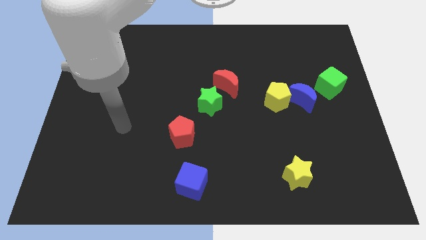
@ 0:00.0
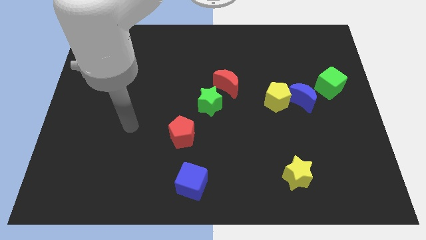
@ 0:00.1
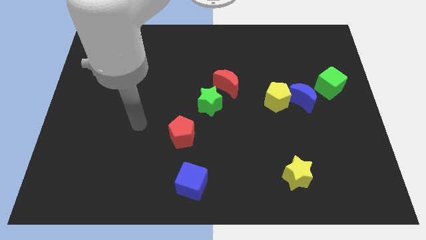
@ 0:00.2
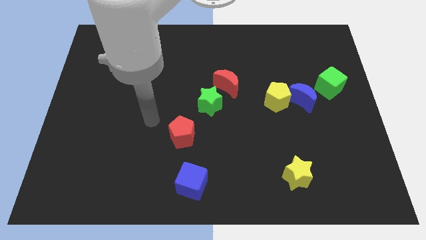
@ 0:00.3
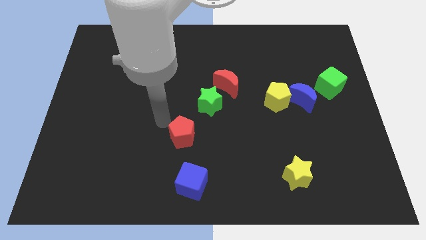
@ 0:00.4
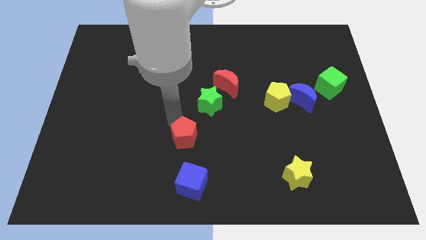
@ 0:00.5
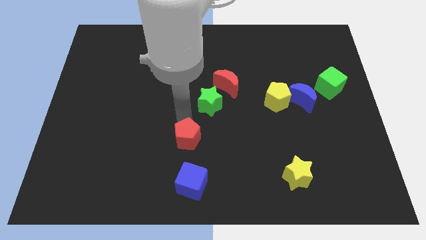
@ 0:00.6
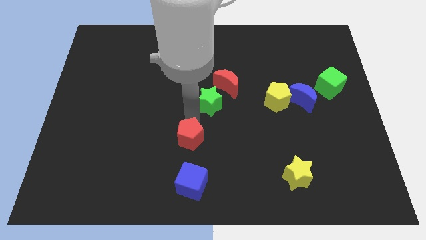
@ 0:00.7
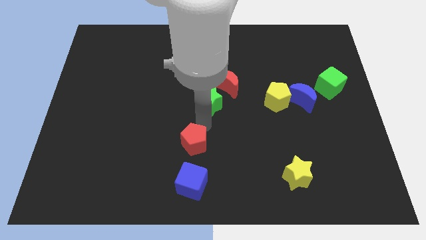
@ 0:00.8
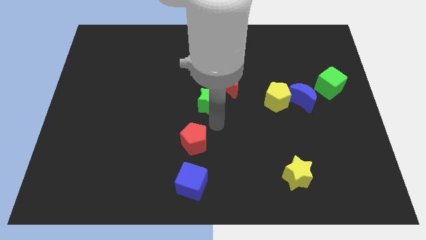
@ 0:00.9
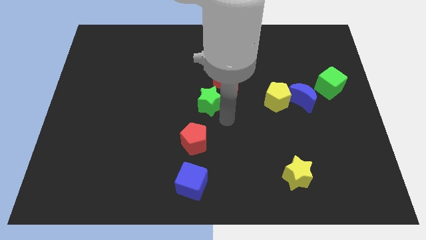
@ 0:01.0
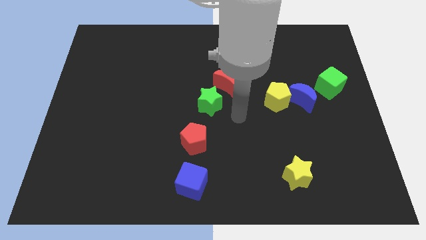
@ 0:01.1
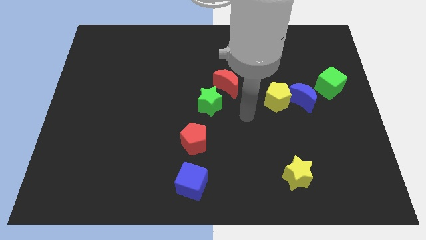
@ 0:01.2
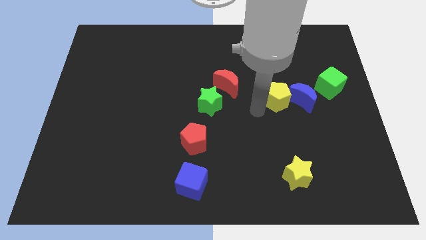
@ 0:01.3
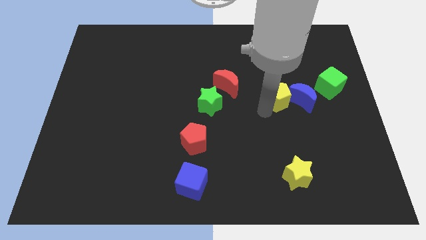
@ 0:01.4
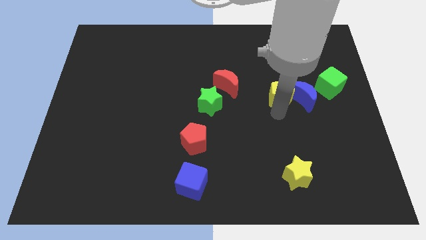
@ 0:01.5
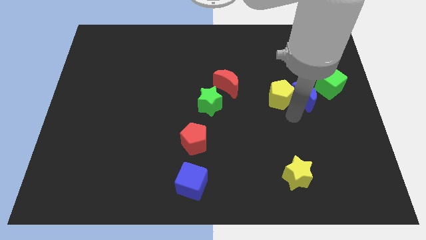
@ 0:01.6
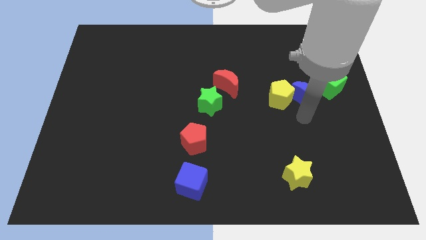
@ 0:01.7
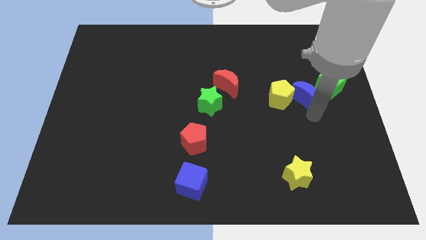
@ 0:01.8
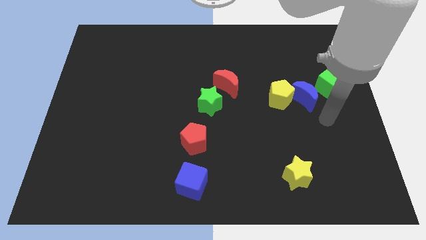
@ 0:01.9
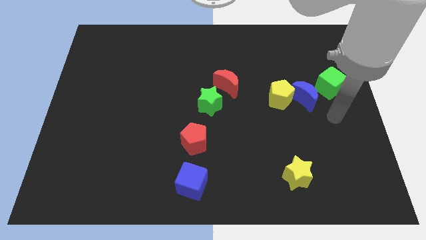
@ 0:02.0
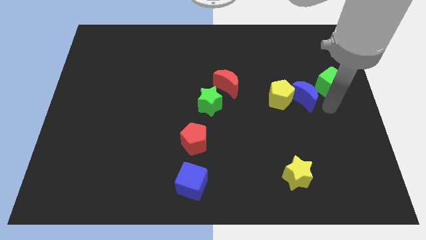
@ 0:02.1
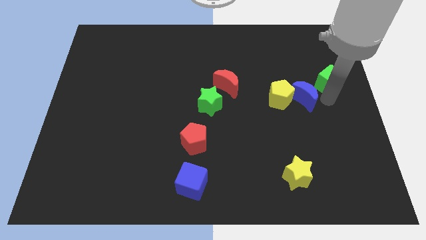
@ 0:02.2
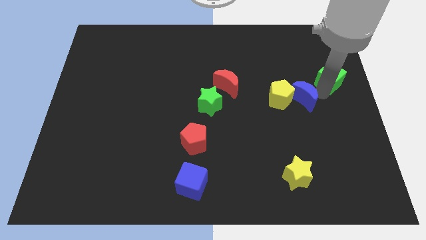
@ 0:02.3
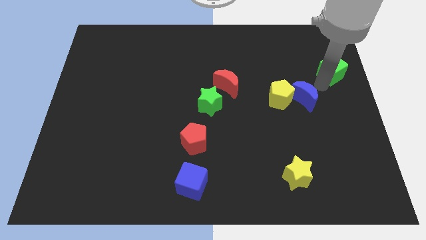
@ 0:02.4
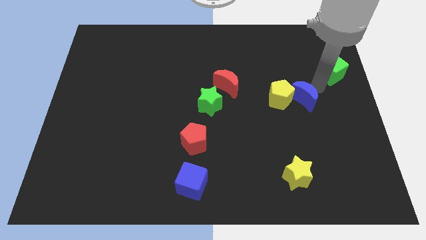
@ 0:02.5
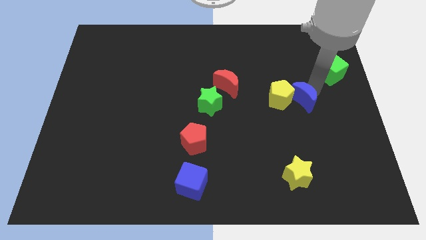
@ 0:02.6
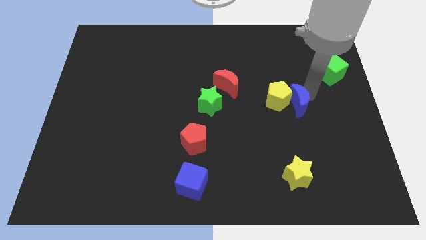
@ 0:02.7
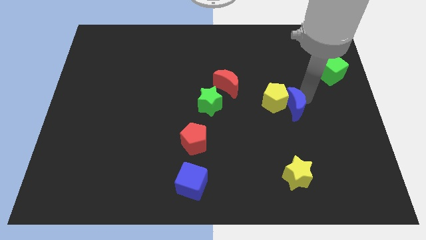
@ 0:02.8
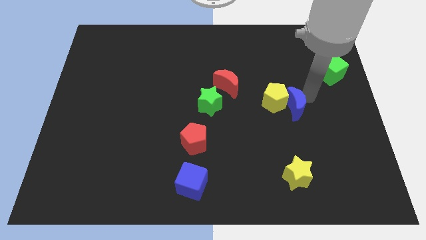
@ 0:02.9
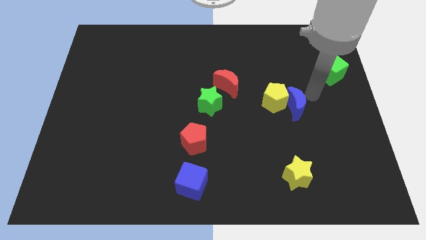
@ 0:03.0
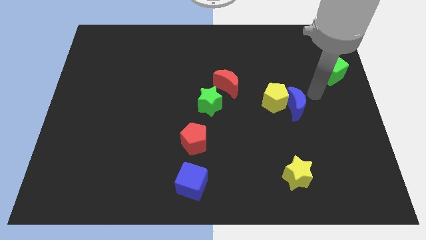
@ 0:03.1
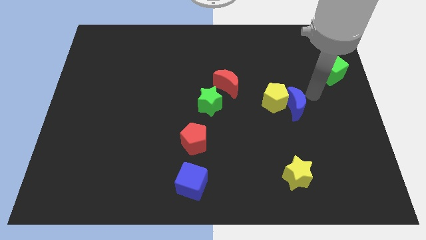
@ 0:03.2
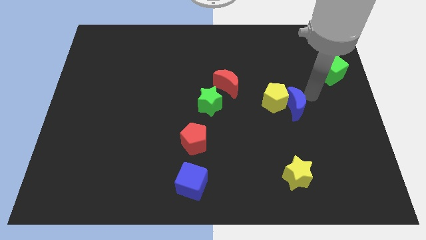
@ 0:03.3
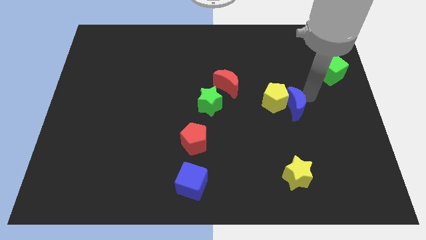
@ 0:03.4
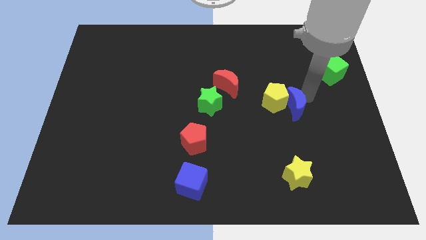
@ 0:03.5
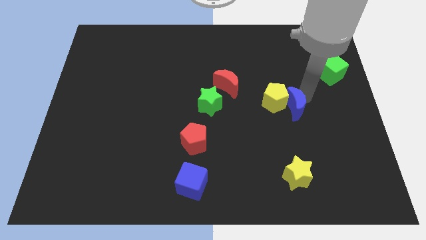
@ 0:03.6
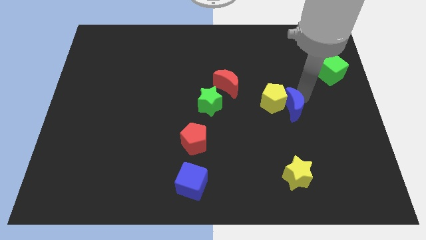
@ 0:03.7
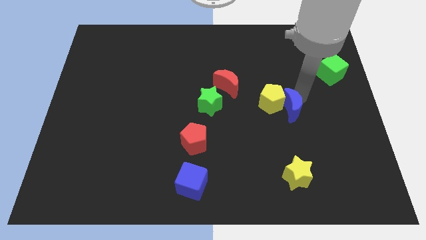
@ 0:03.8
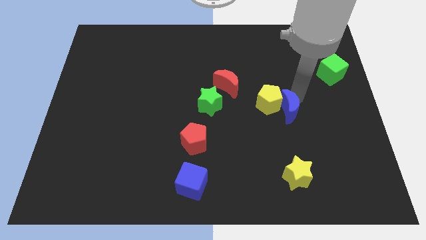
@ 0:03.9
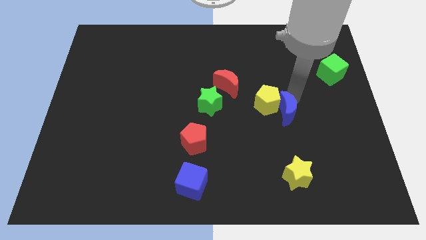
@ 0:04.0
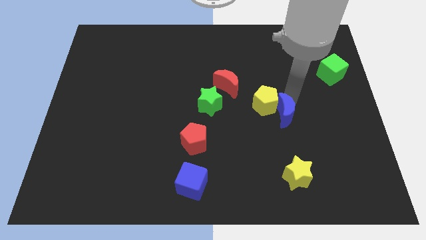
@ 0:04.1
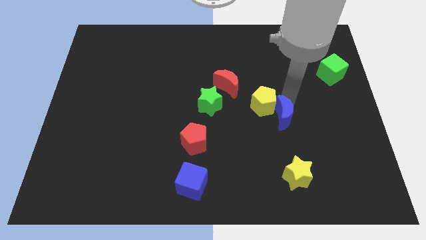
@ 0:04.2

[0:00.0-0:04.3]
slightly push the blue moon downwards and then to the left

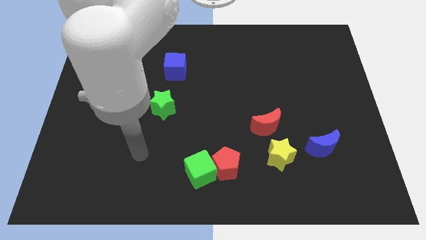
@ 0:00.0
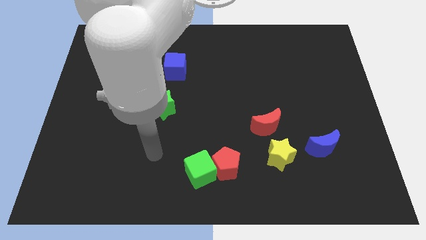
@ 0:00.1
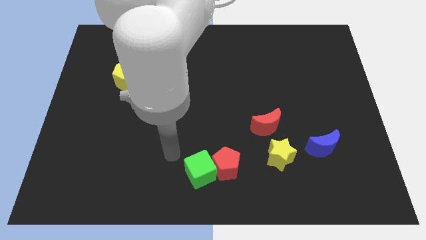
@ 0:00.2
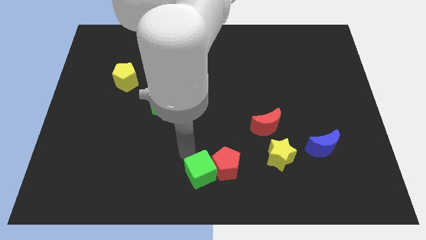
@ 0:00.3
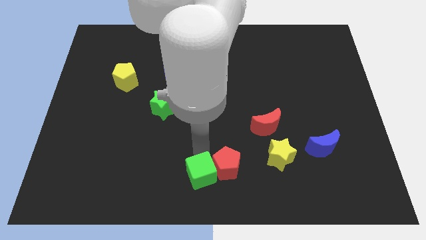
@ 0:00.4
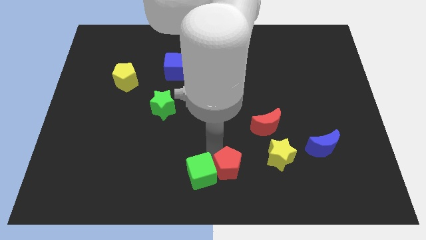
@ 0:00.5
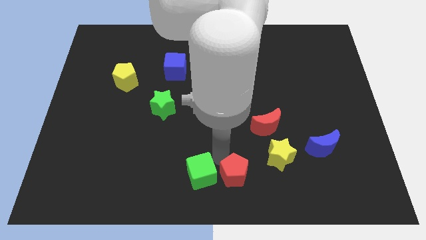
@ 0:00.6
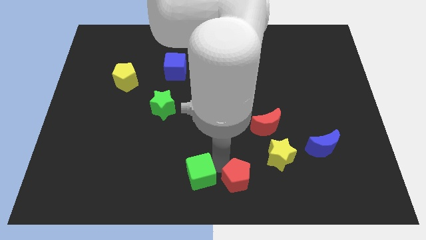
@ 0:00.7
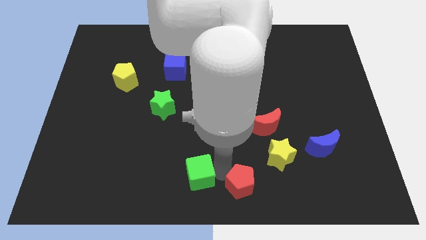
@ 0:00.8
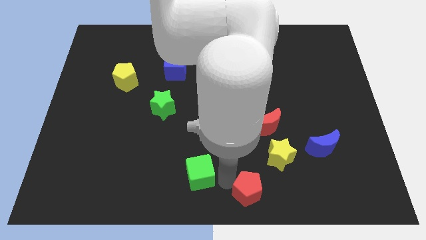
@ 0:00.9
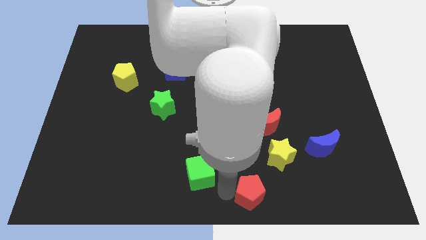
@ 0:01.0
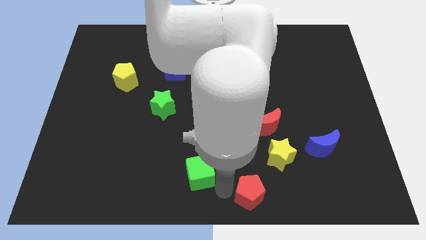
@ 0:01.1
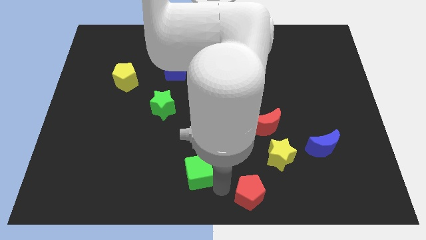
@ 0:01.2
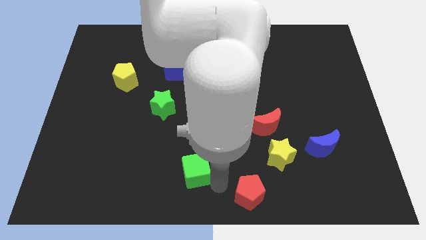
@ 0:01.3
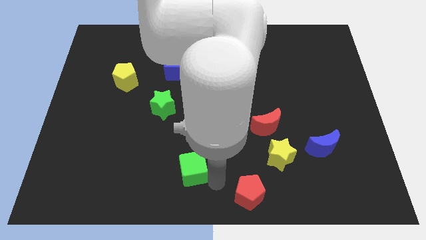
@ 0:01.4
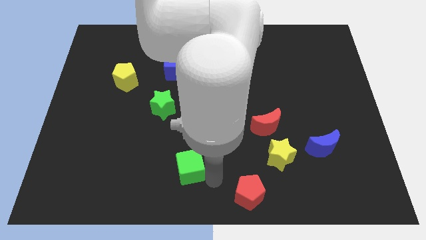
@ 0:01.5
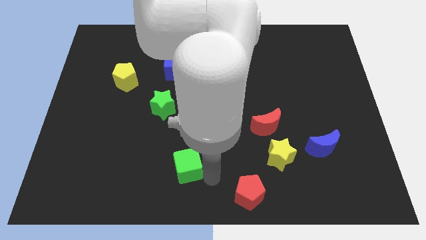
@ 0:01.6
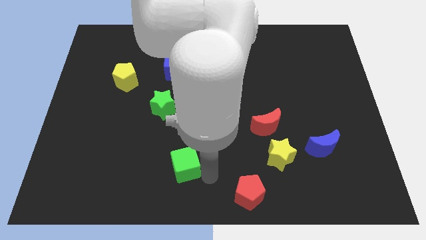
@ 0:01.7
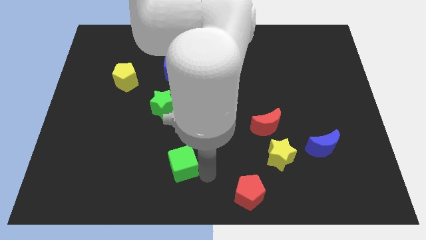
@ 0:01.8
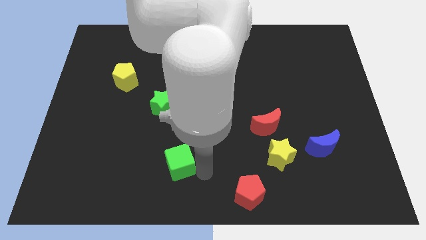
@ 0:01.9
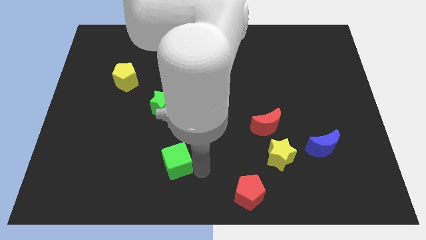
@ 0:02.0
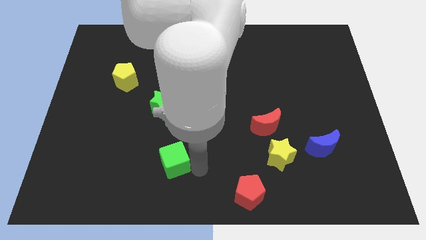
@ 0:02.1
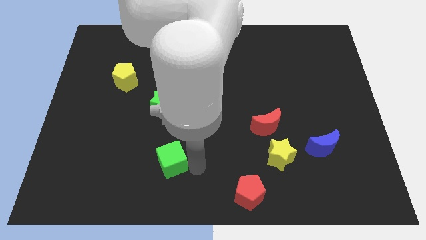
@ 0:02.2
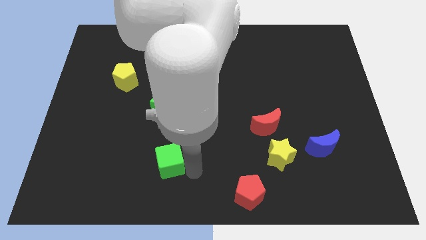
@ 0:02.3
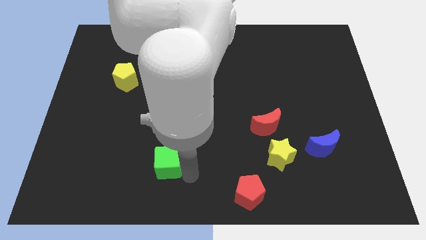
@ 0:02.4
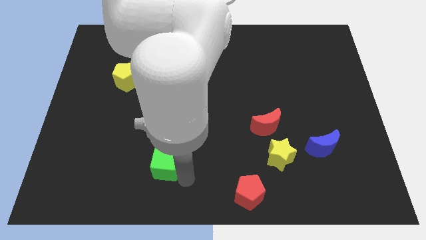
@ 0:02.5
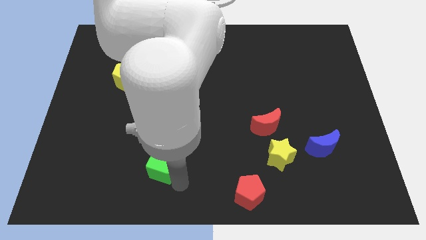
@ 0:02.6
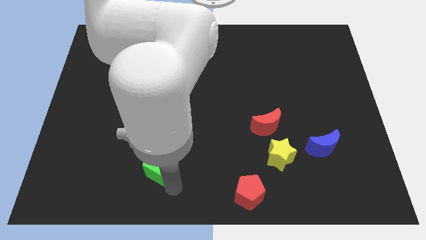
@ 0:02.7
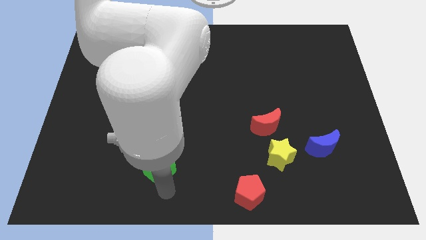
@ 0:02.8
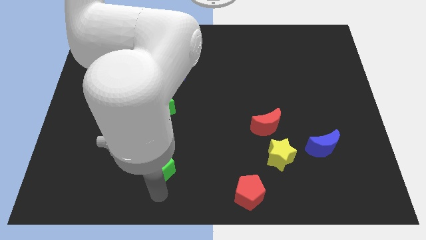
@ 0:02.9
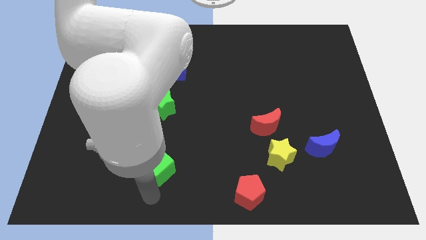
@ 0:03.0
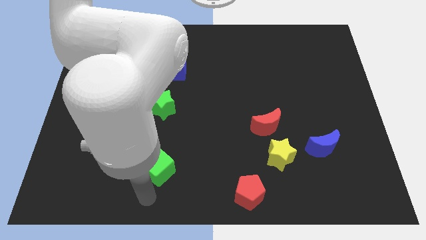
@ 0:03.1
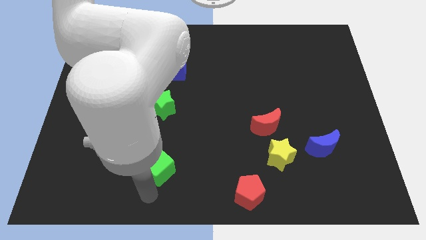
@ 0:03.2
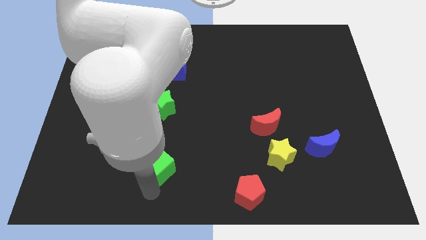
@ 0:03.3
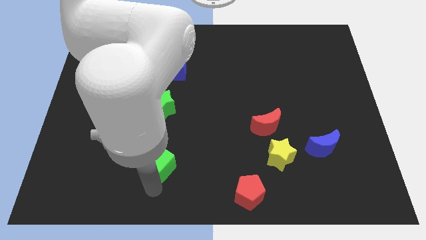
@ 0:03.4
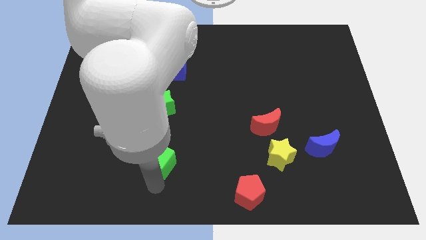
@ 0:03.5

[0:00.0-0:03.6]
slightly move the green cube upwards and then left

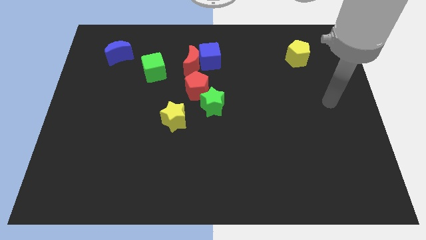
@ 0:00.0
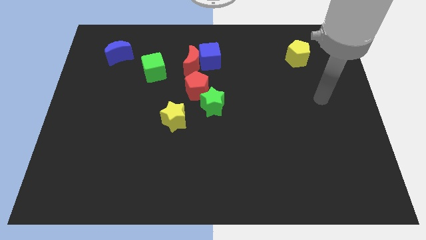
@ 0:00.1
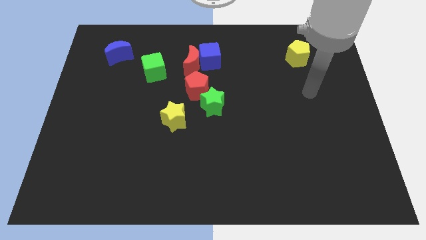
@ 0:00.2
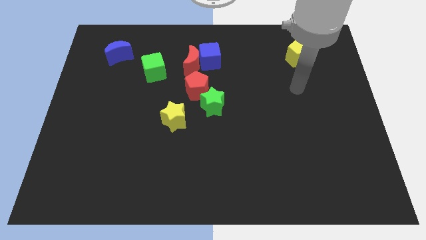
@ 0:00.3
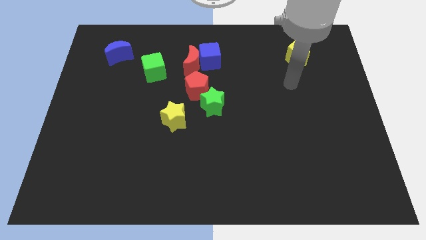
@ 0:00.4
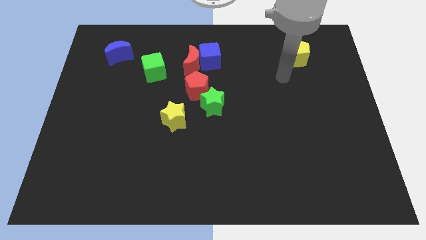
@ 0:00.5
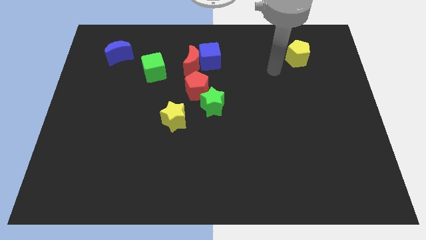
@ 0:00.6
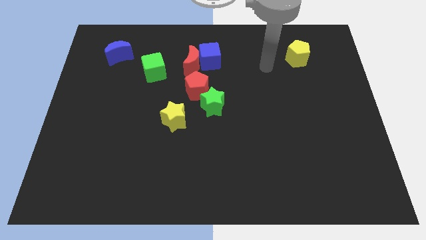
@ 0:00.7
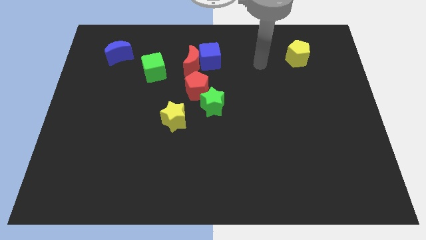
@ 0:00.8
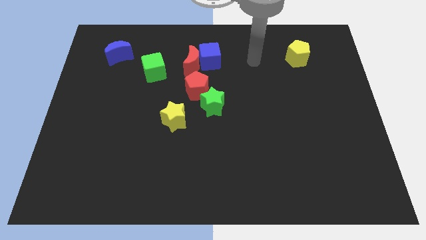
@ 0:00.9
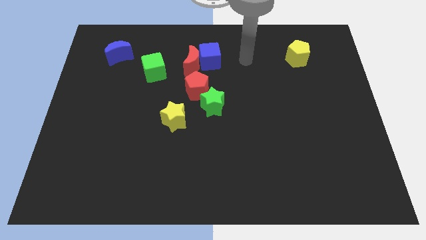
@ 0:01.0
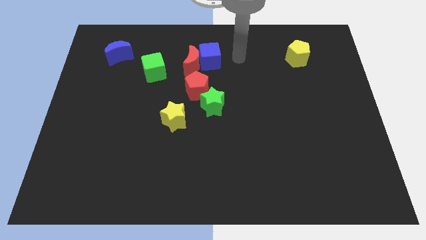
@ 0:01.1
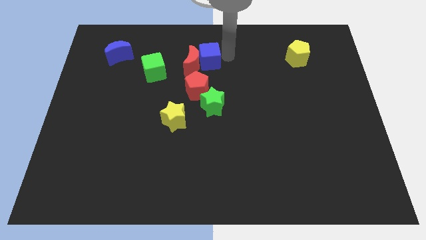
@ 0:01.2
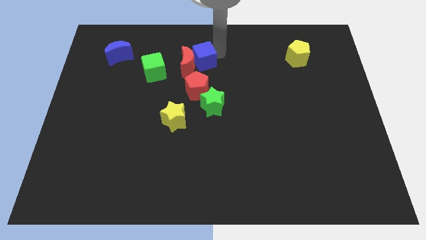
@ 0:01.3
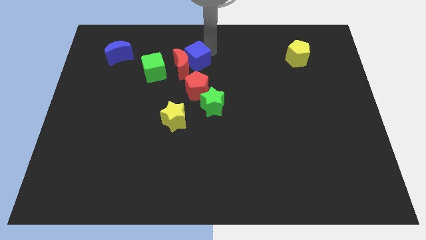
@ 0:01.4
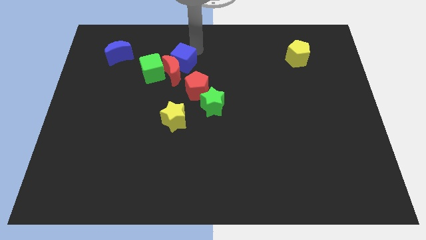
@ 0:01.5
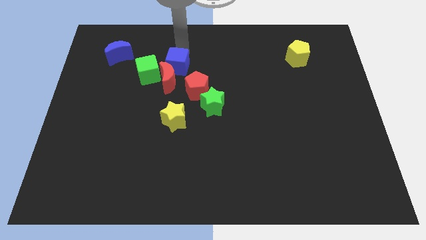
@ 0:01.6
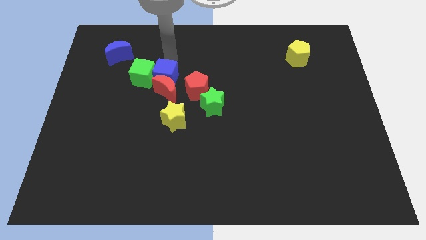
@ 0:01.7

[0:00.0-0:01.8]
slide the red moon a bit down
